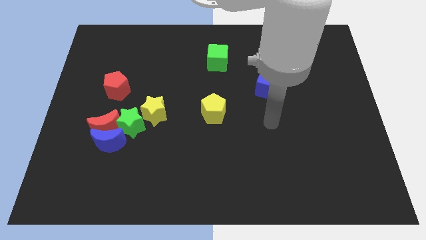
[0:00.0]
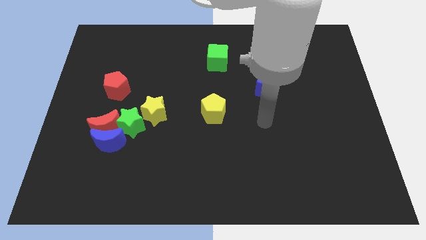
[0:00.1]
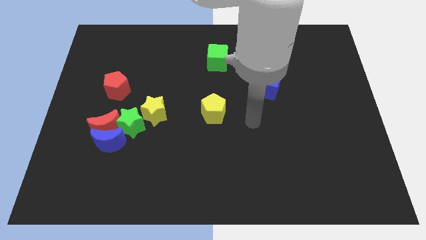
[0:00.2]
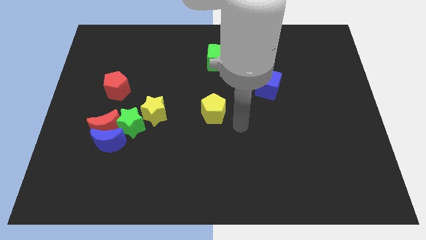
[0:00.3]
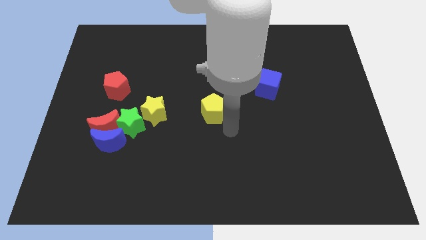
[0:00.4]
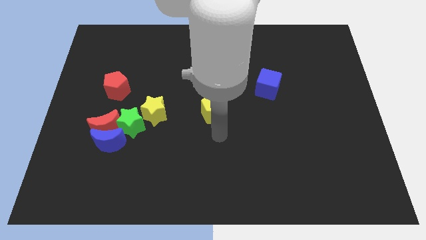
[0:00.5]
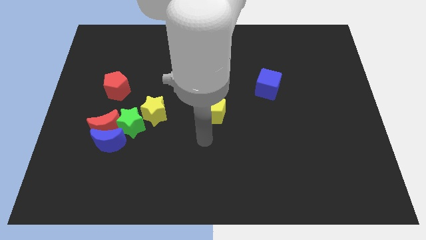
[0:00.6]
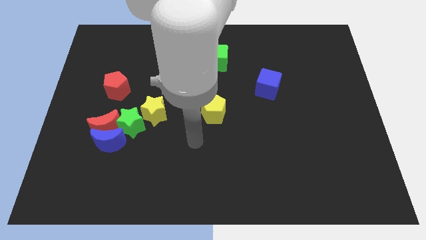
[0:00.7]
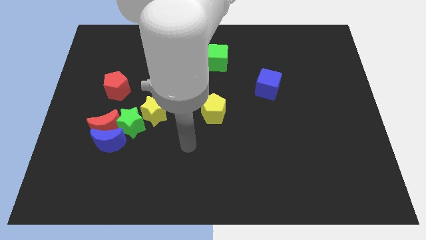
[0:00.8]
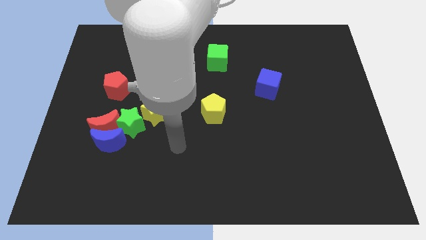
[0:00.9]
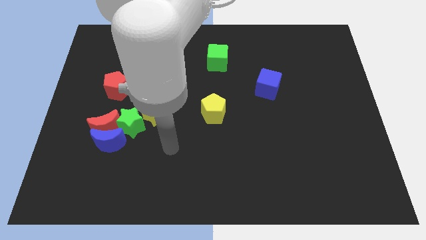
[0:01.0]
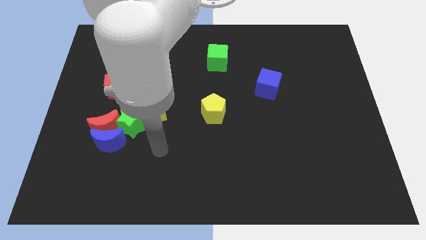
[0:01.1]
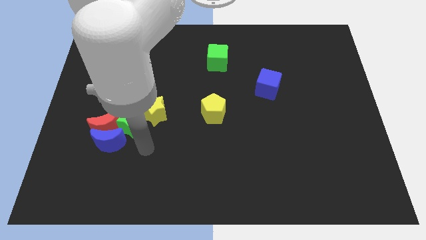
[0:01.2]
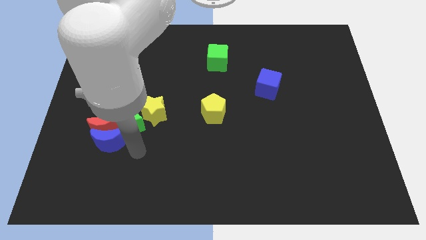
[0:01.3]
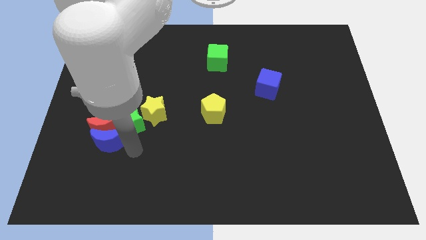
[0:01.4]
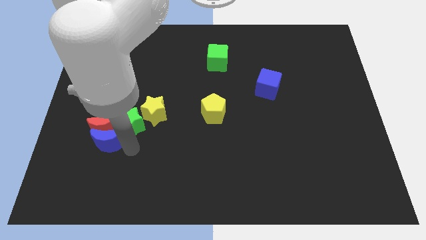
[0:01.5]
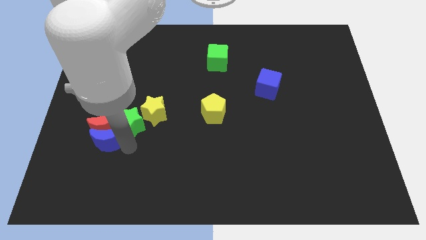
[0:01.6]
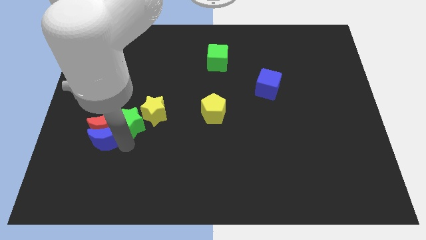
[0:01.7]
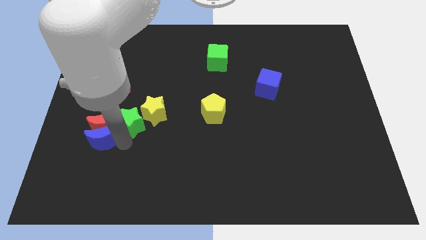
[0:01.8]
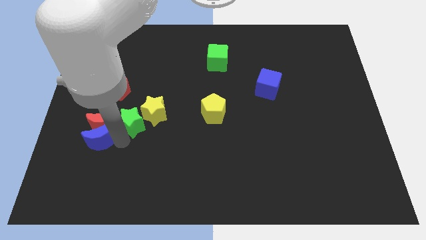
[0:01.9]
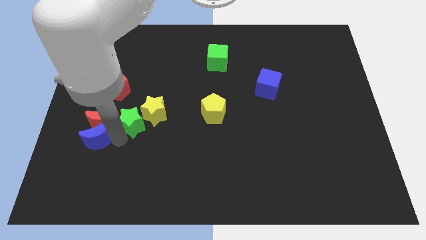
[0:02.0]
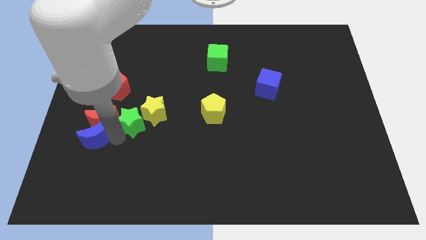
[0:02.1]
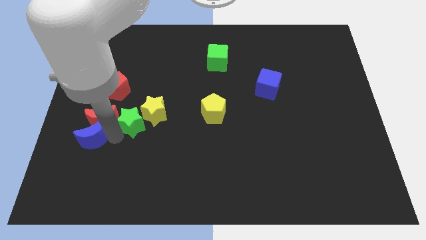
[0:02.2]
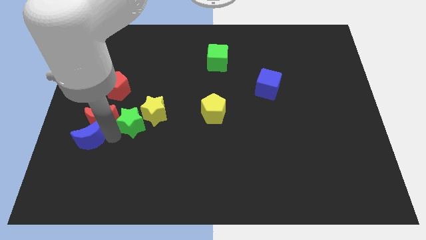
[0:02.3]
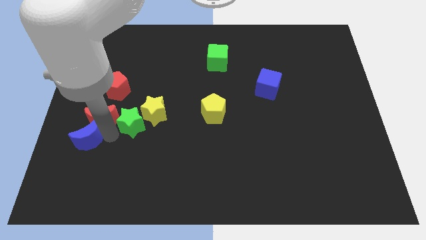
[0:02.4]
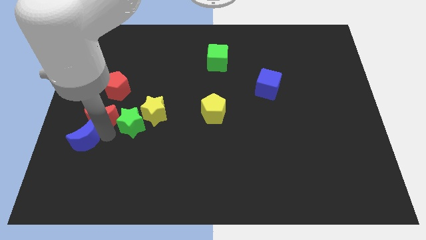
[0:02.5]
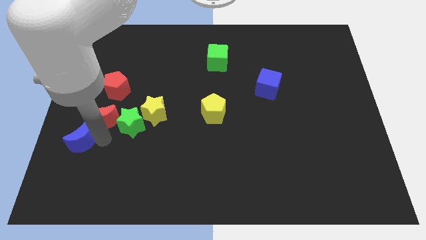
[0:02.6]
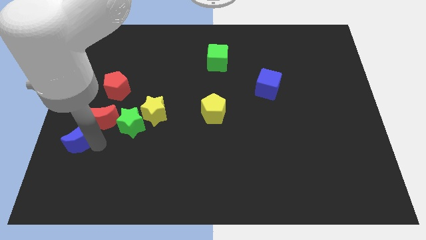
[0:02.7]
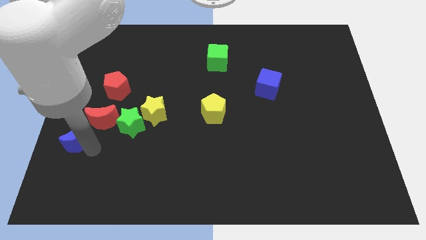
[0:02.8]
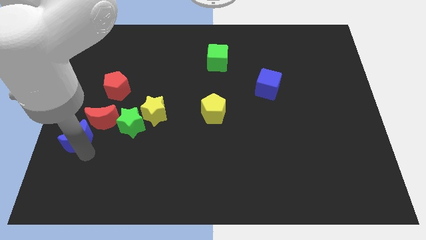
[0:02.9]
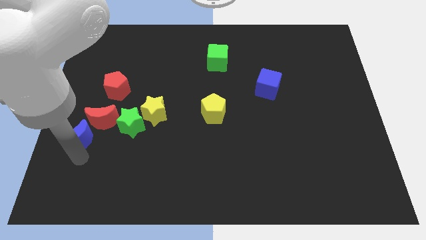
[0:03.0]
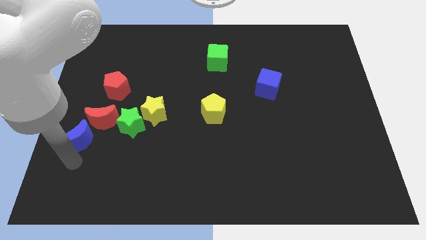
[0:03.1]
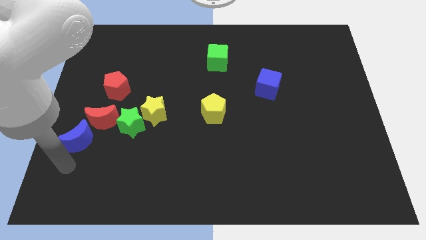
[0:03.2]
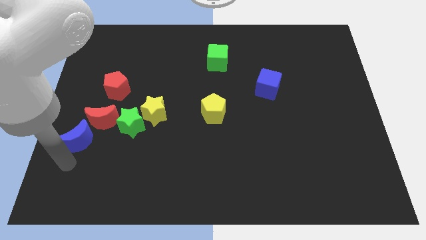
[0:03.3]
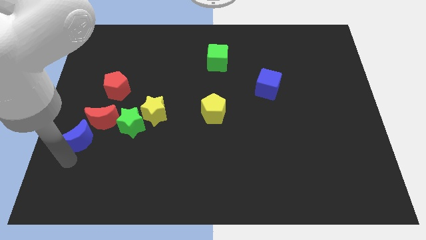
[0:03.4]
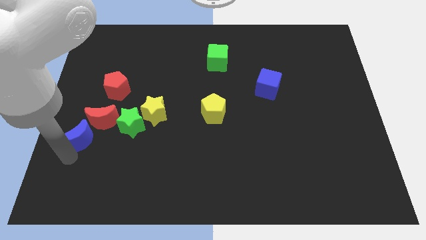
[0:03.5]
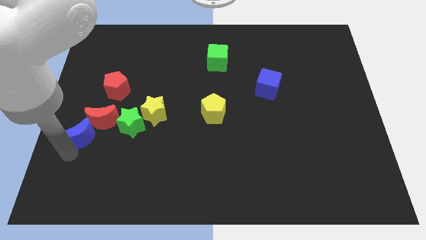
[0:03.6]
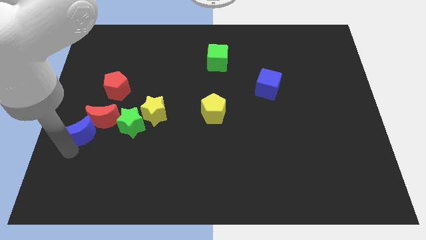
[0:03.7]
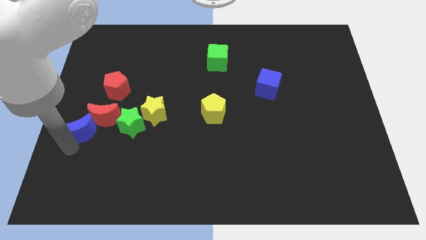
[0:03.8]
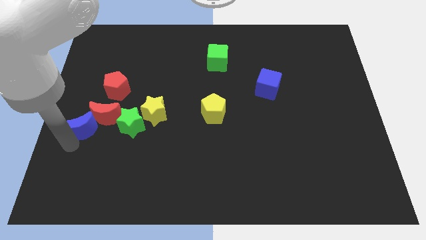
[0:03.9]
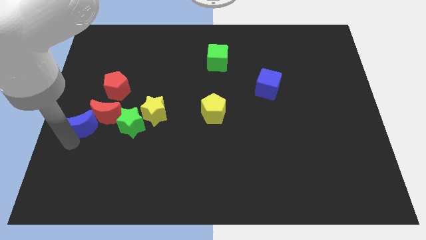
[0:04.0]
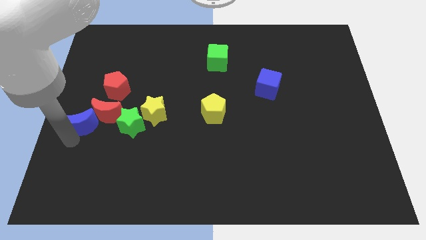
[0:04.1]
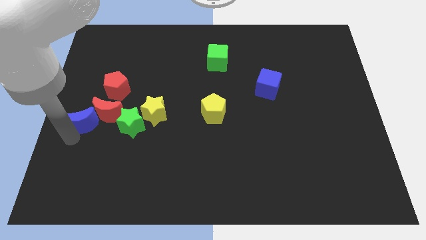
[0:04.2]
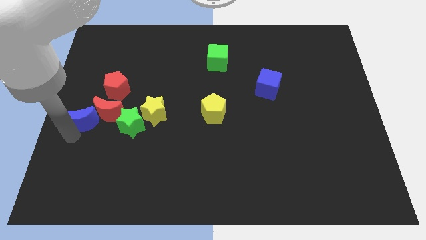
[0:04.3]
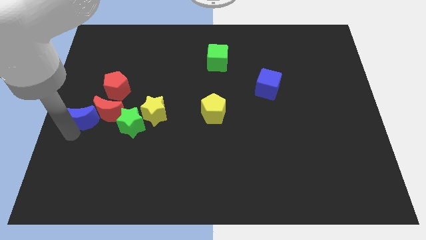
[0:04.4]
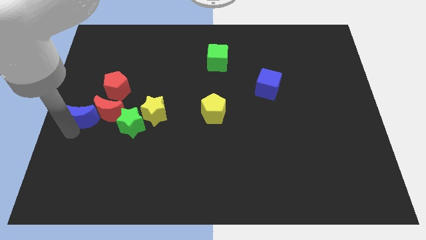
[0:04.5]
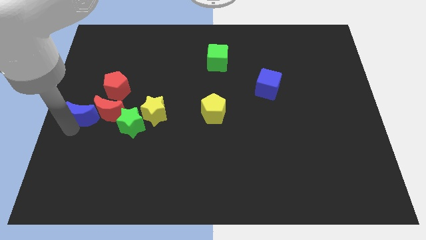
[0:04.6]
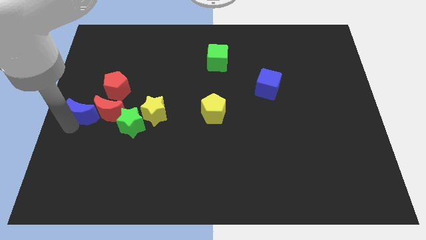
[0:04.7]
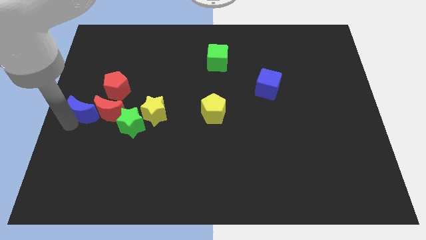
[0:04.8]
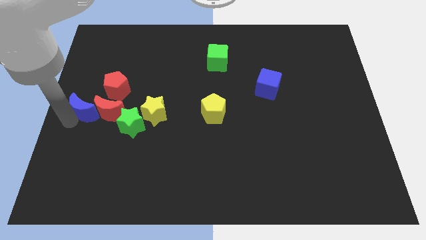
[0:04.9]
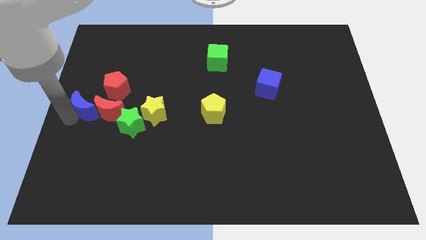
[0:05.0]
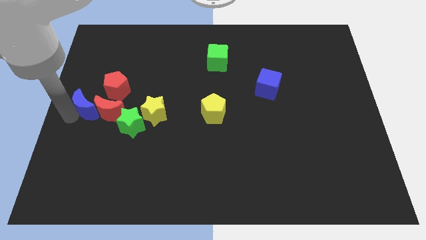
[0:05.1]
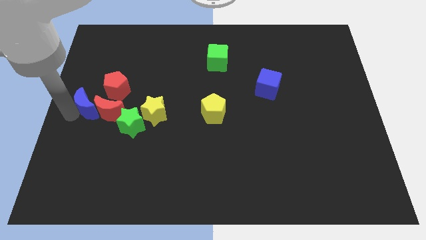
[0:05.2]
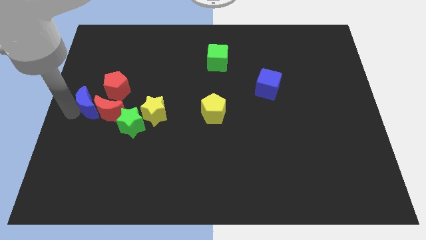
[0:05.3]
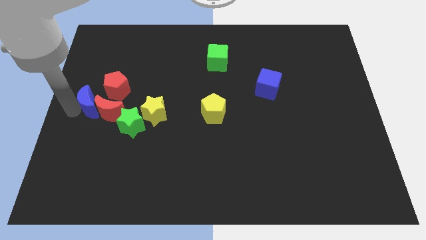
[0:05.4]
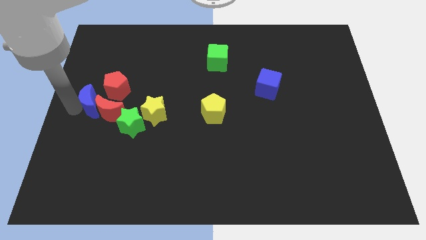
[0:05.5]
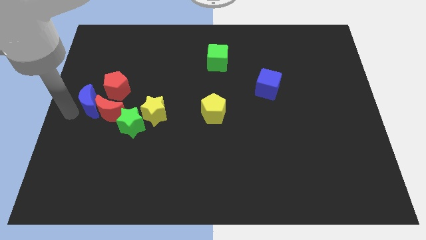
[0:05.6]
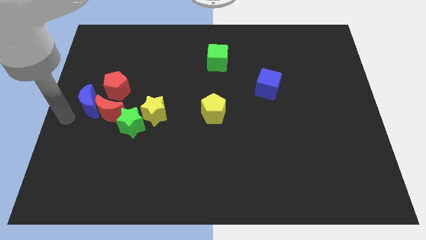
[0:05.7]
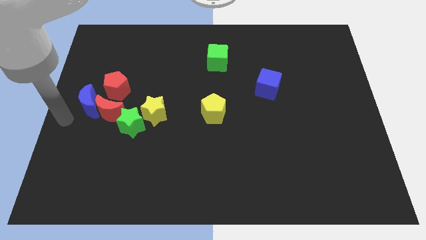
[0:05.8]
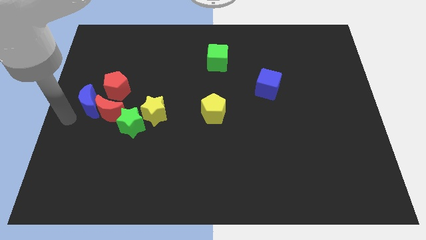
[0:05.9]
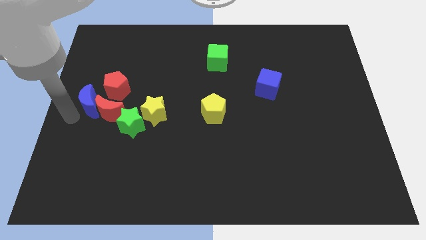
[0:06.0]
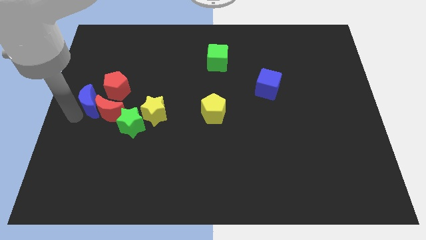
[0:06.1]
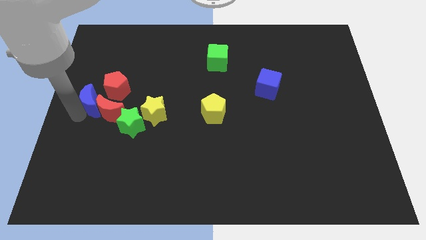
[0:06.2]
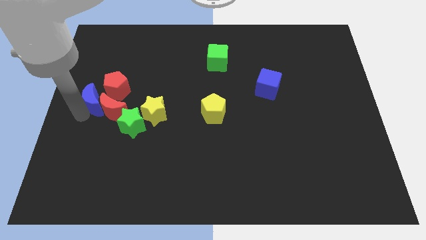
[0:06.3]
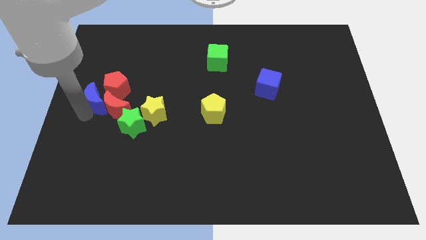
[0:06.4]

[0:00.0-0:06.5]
put the blue moon close to the red pentagon

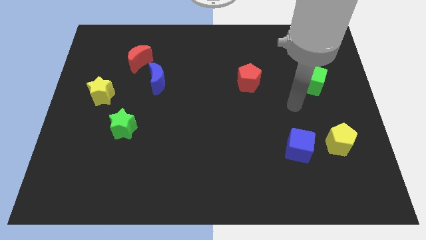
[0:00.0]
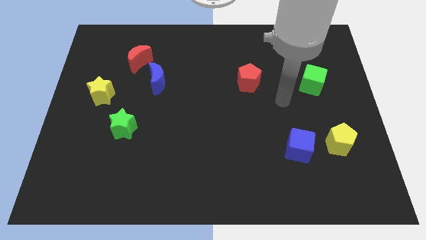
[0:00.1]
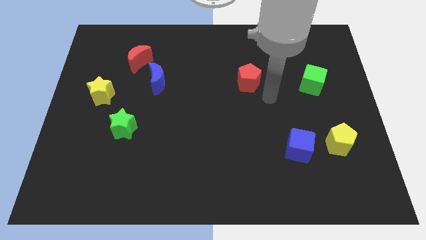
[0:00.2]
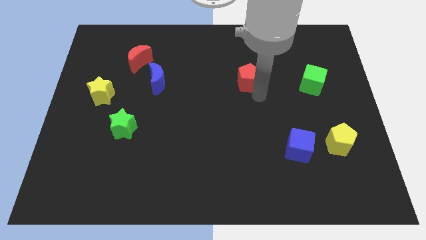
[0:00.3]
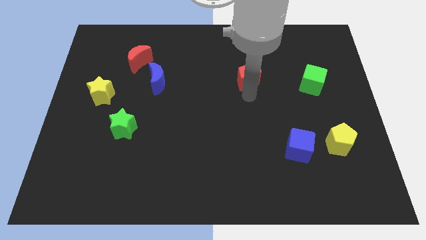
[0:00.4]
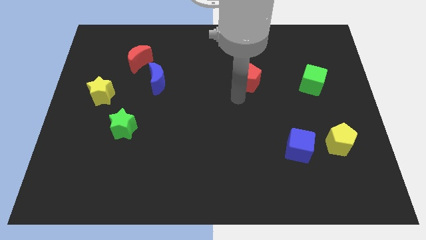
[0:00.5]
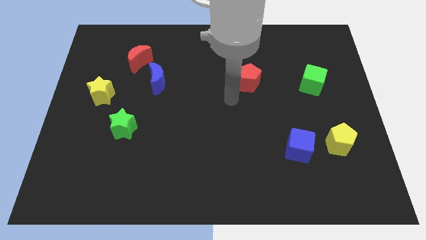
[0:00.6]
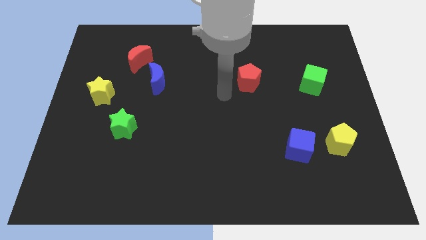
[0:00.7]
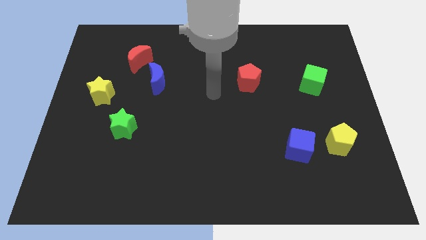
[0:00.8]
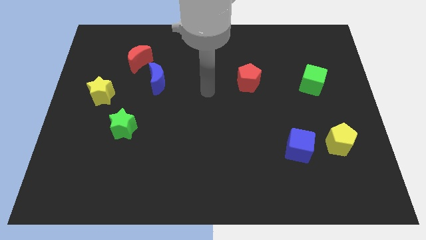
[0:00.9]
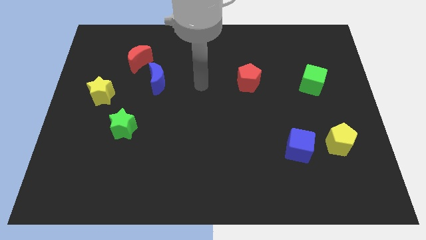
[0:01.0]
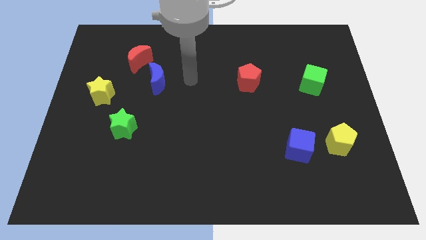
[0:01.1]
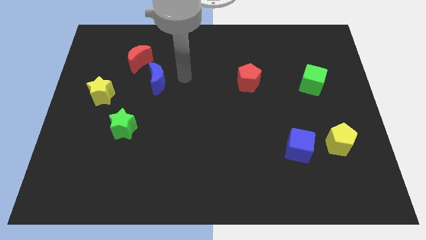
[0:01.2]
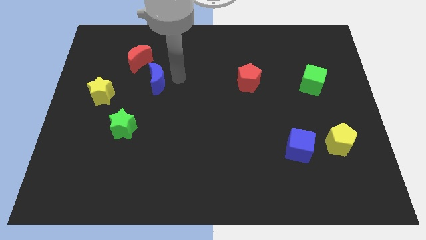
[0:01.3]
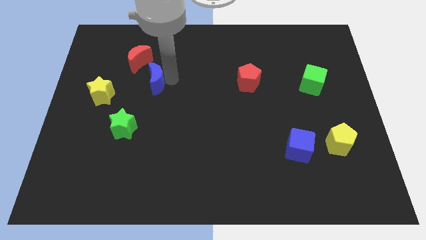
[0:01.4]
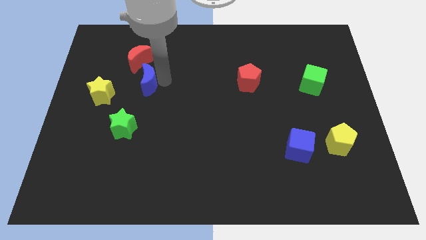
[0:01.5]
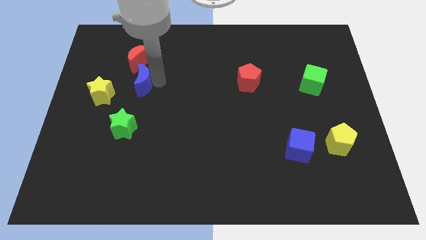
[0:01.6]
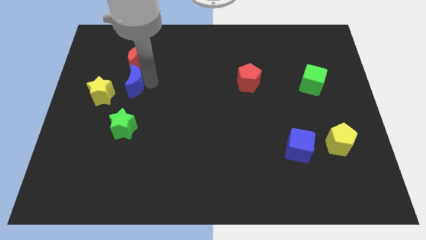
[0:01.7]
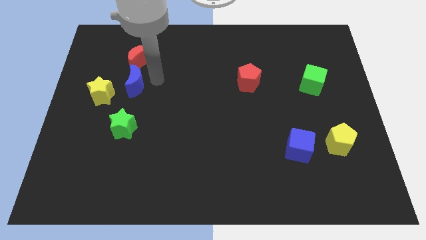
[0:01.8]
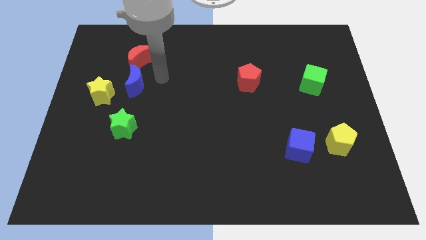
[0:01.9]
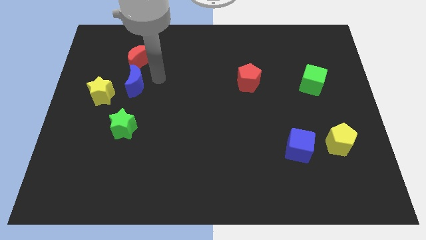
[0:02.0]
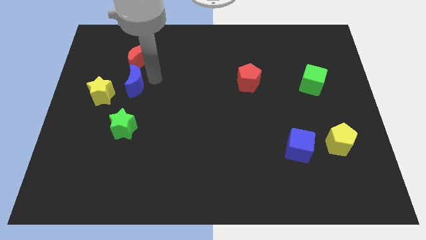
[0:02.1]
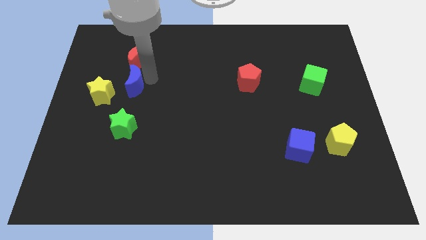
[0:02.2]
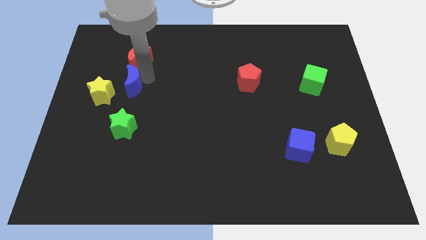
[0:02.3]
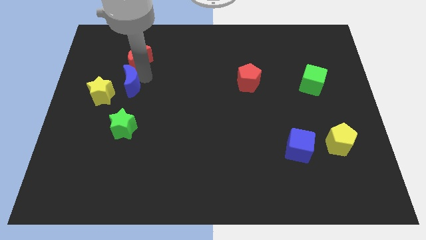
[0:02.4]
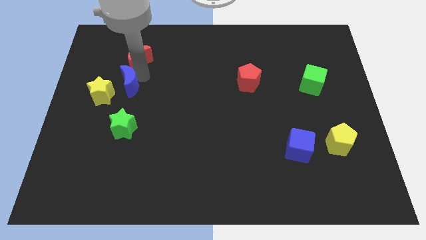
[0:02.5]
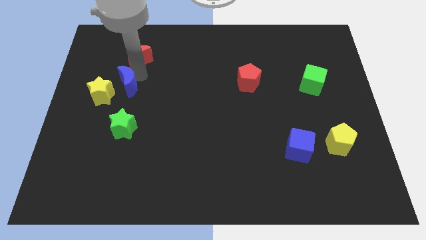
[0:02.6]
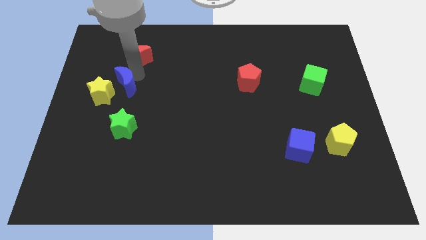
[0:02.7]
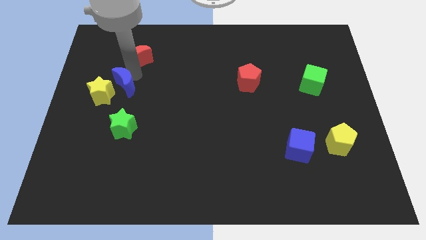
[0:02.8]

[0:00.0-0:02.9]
slide the blue moon to the yellow star
